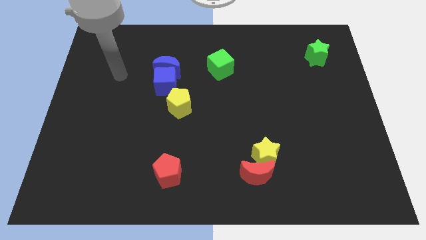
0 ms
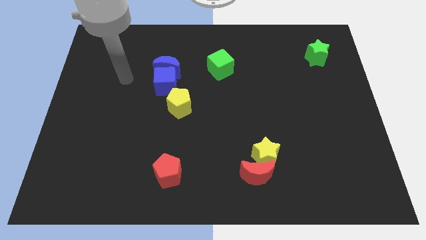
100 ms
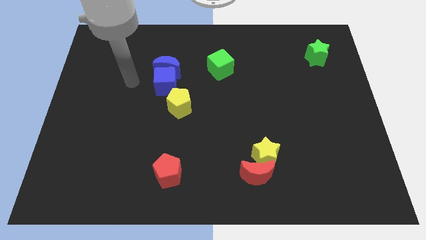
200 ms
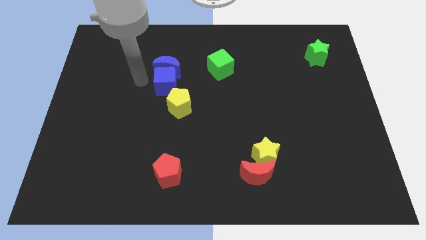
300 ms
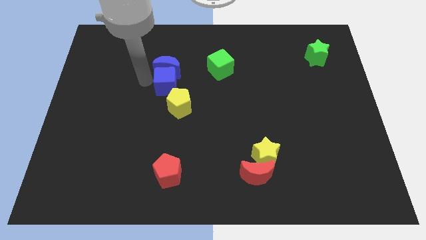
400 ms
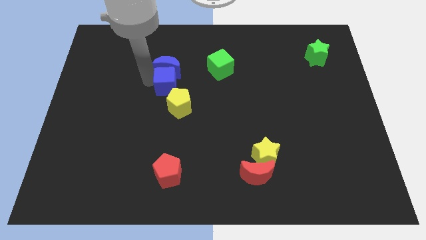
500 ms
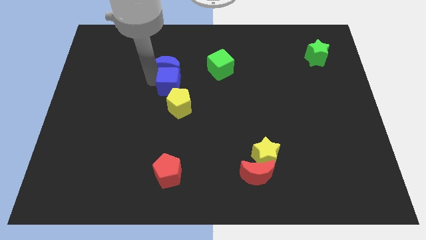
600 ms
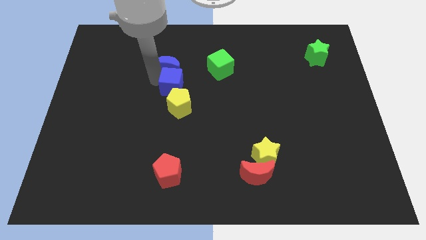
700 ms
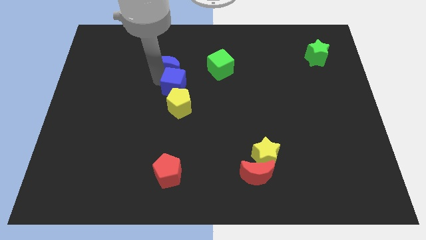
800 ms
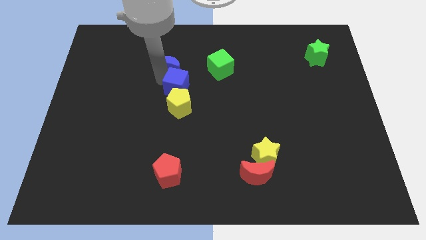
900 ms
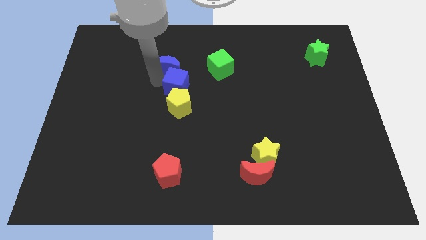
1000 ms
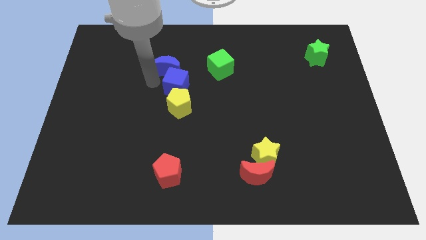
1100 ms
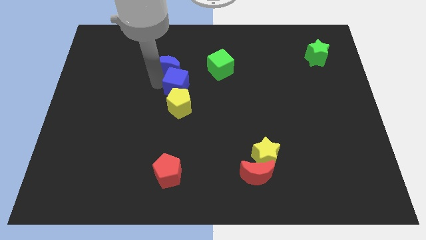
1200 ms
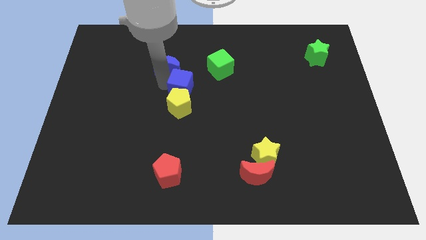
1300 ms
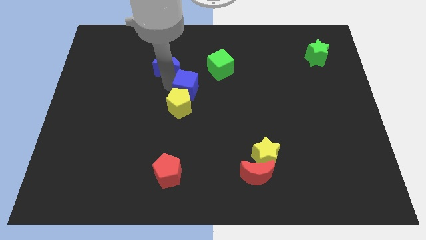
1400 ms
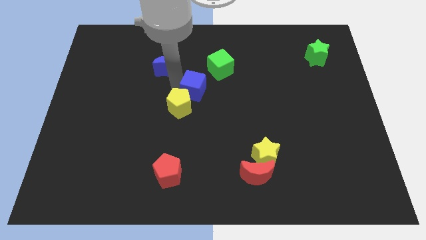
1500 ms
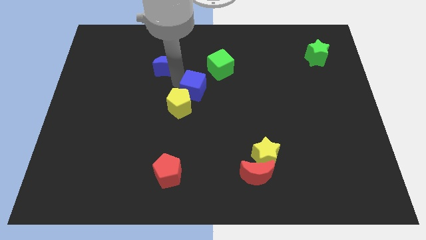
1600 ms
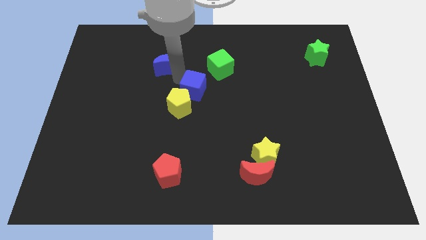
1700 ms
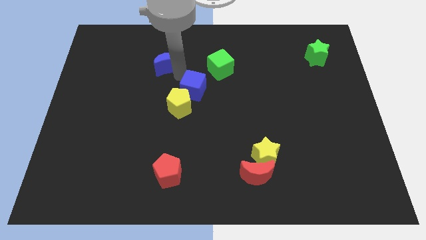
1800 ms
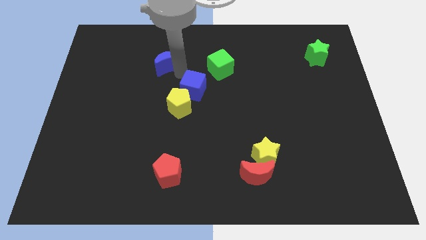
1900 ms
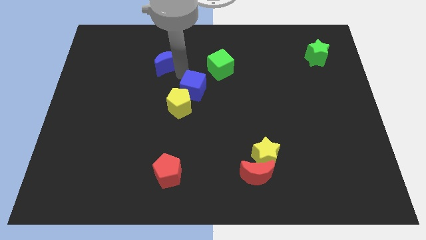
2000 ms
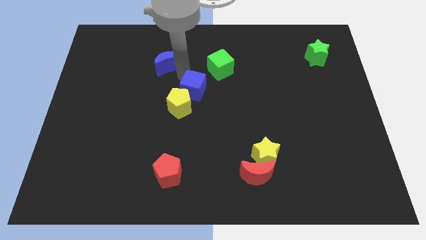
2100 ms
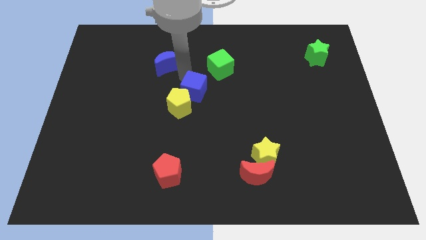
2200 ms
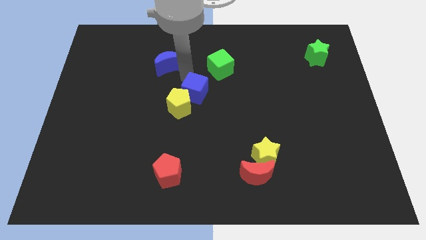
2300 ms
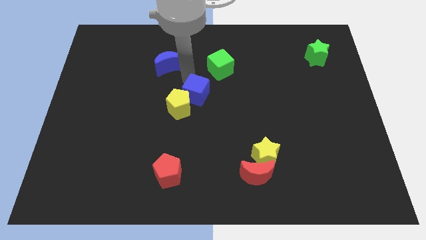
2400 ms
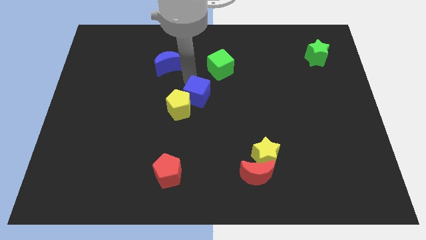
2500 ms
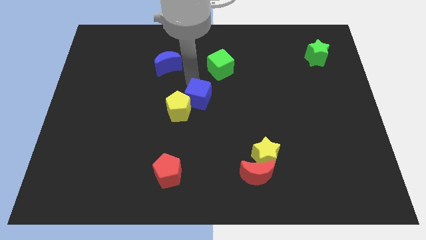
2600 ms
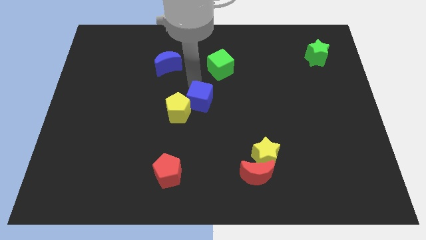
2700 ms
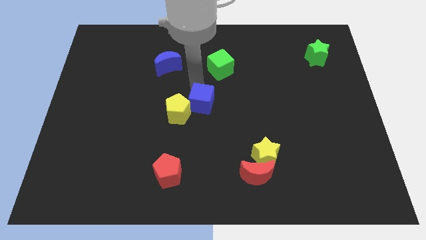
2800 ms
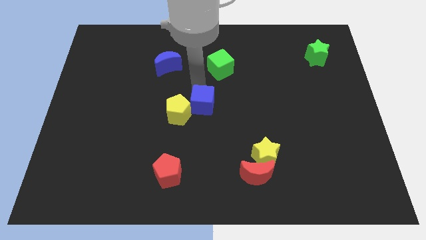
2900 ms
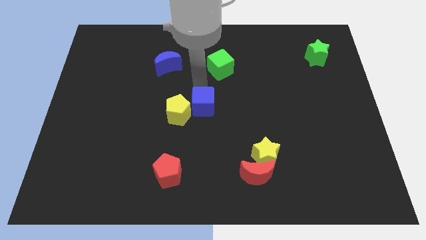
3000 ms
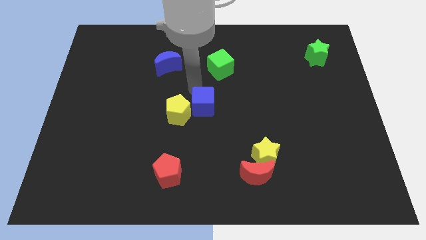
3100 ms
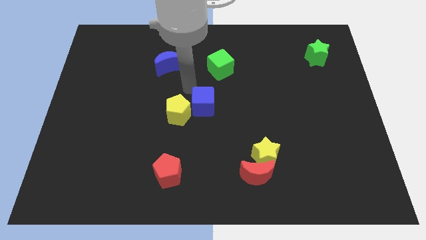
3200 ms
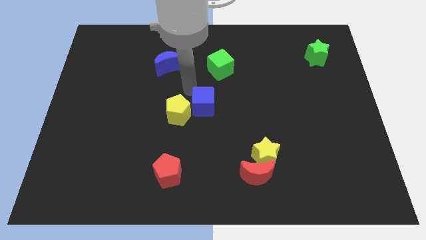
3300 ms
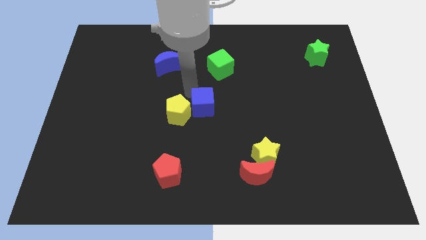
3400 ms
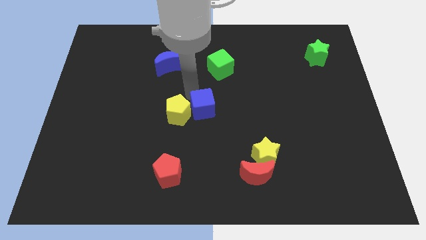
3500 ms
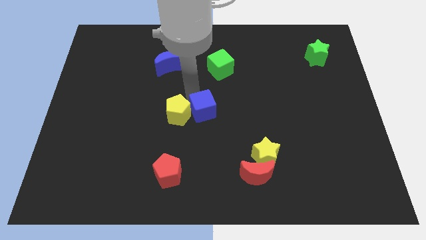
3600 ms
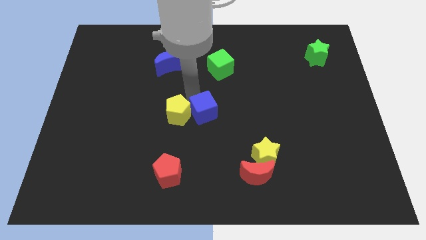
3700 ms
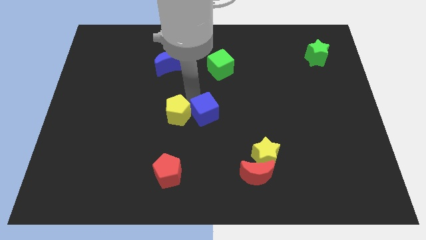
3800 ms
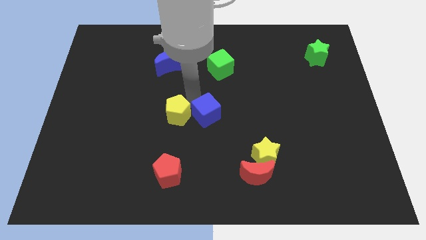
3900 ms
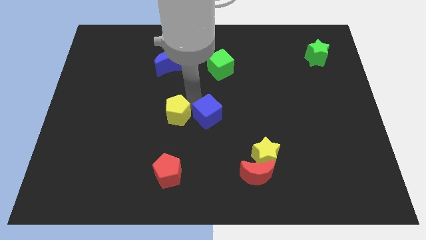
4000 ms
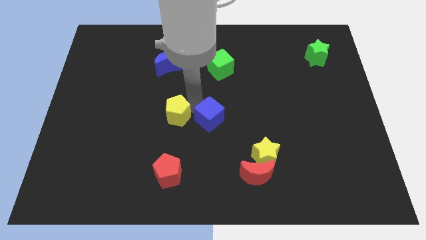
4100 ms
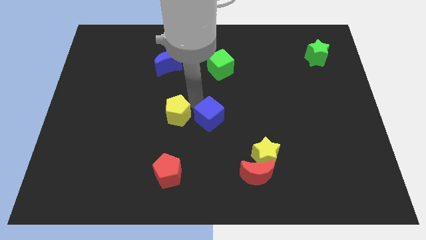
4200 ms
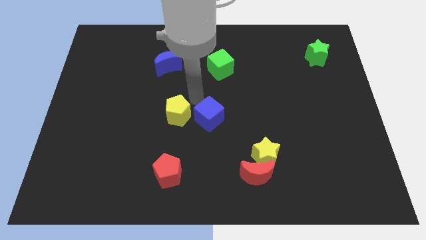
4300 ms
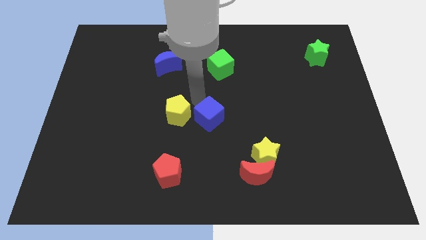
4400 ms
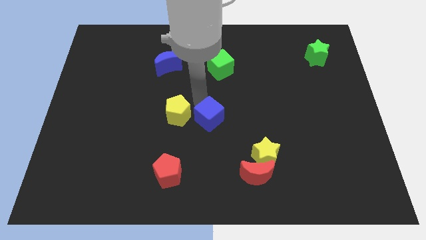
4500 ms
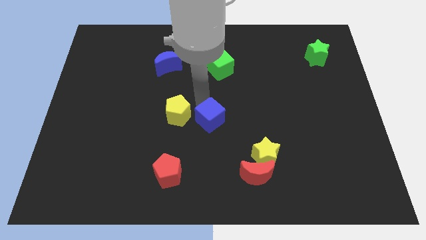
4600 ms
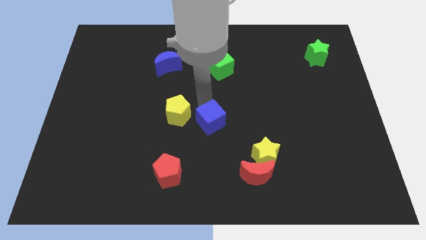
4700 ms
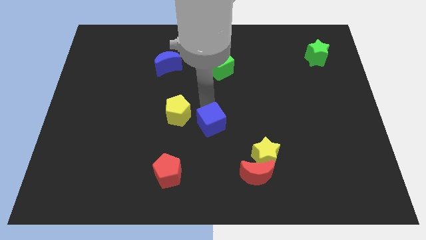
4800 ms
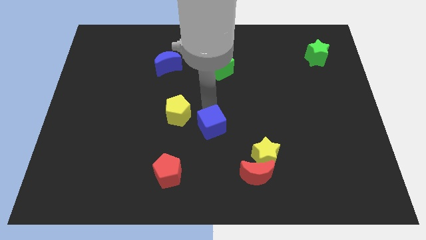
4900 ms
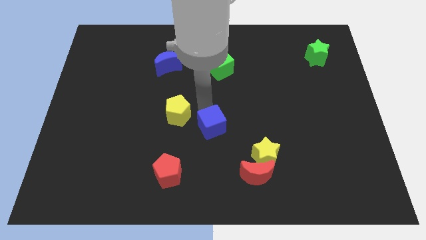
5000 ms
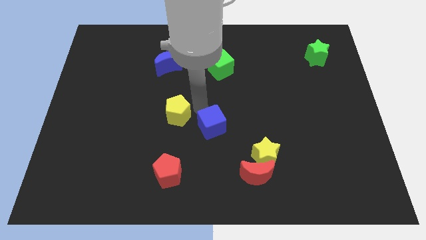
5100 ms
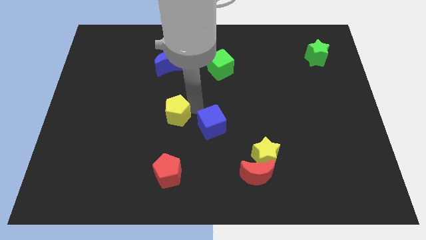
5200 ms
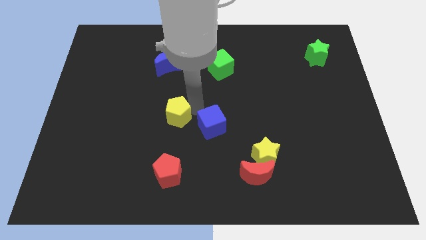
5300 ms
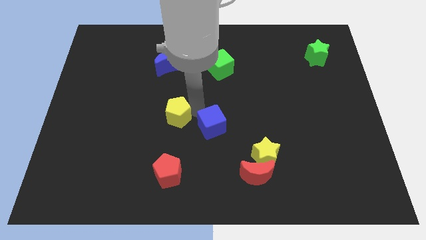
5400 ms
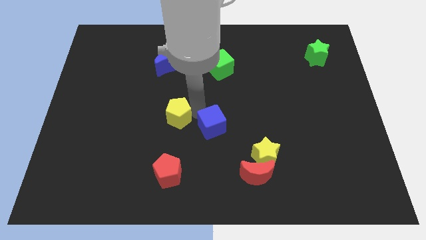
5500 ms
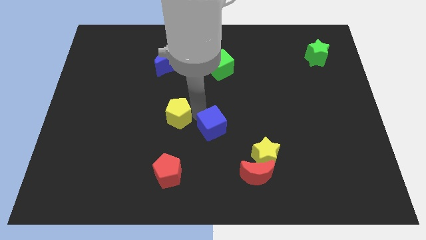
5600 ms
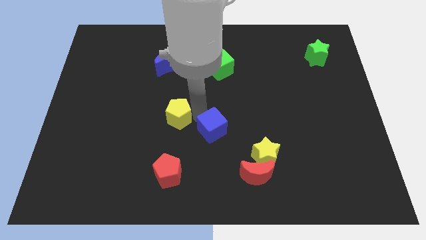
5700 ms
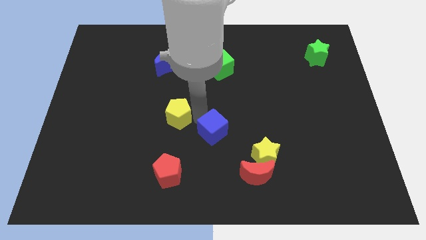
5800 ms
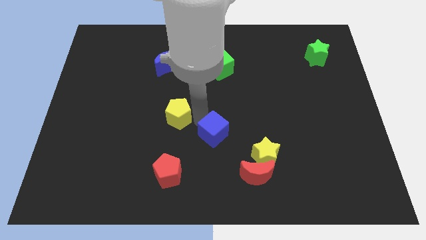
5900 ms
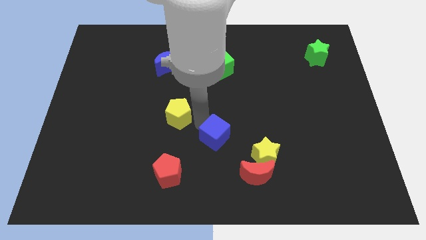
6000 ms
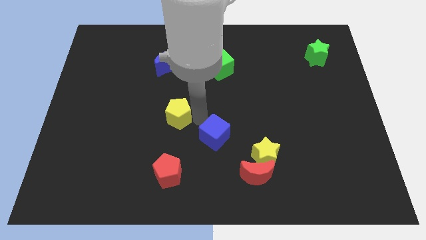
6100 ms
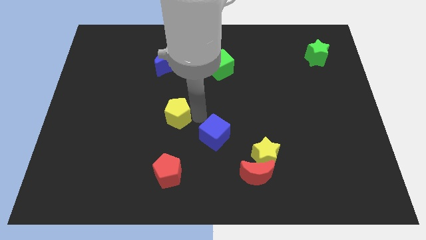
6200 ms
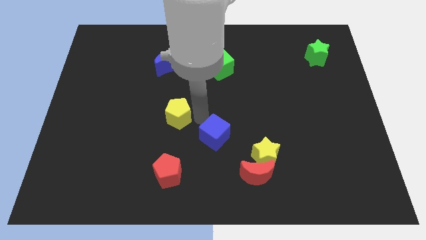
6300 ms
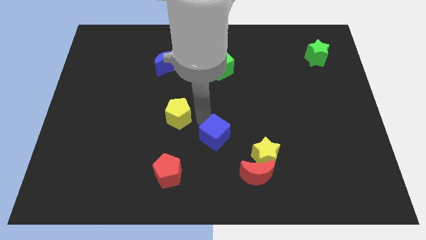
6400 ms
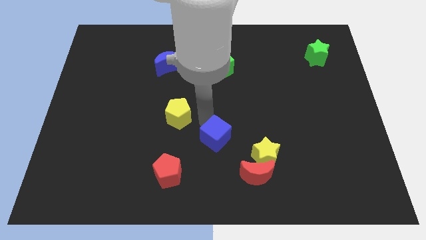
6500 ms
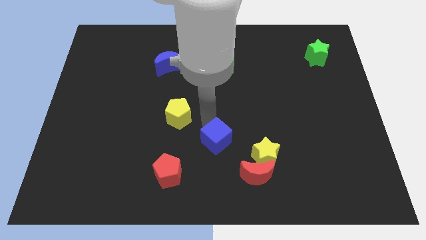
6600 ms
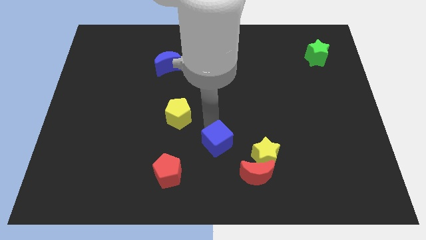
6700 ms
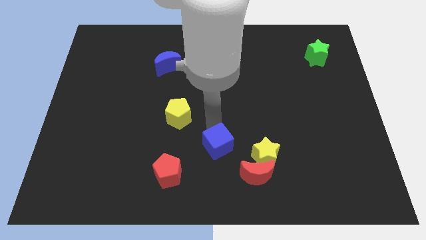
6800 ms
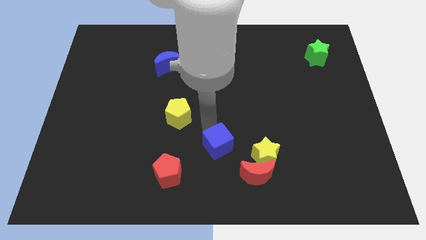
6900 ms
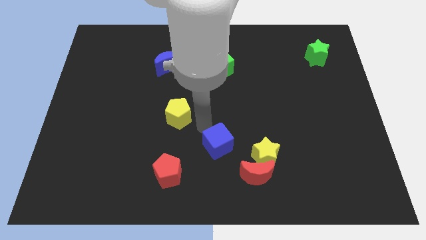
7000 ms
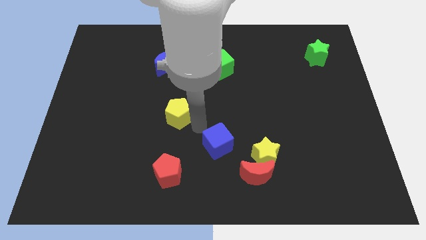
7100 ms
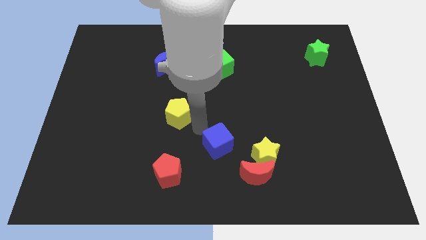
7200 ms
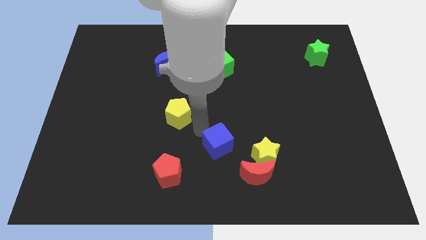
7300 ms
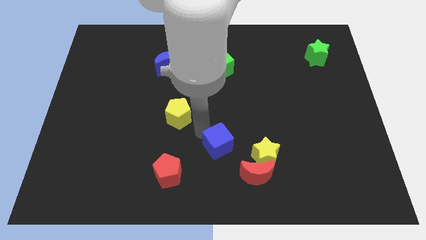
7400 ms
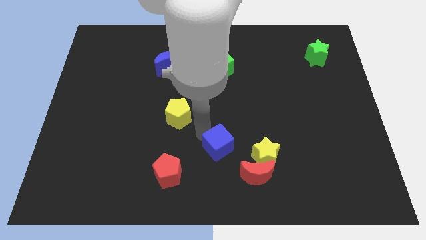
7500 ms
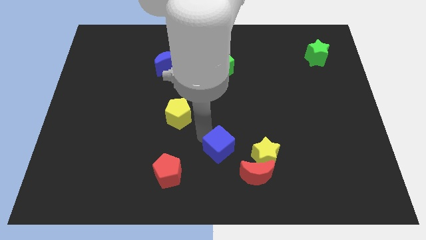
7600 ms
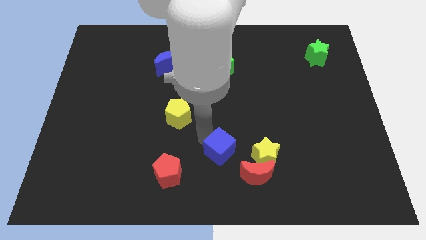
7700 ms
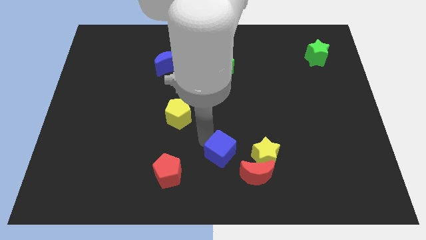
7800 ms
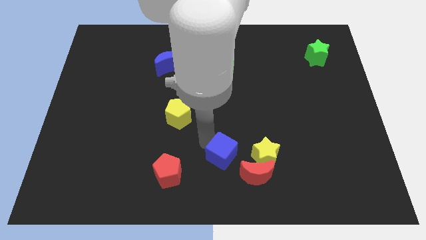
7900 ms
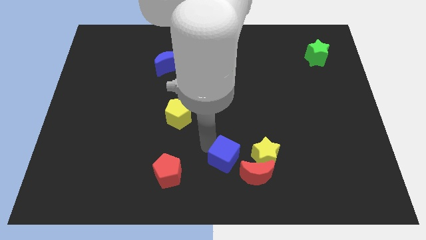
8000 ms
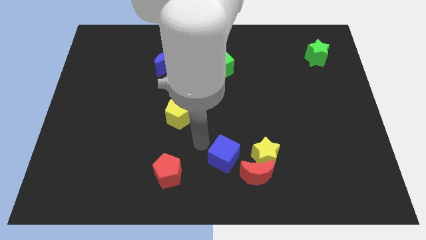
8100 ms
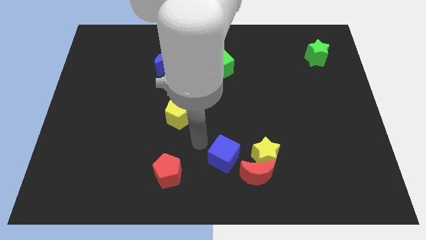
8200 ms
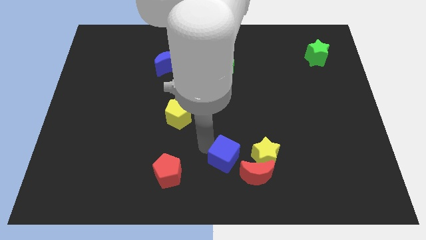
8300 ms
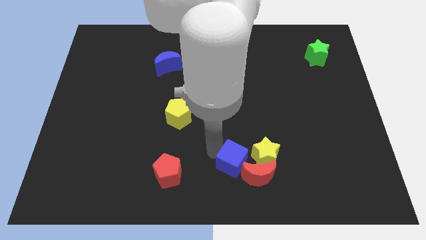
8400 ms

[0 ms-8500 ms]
move the blue cube close to the red moon
